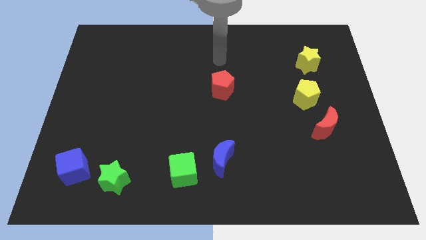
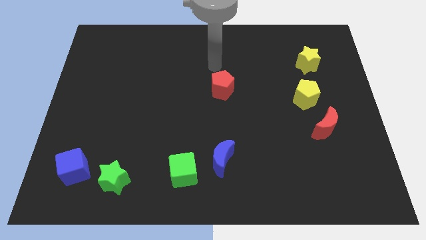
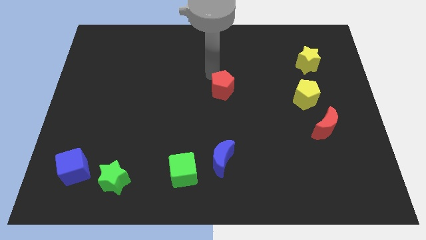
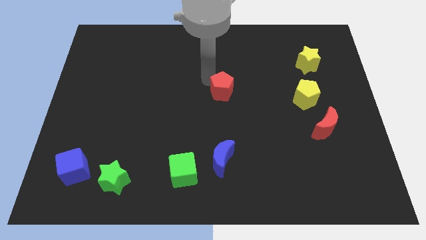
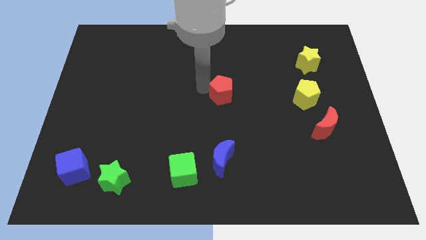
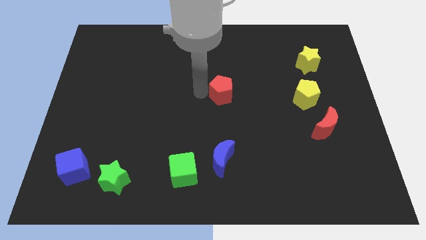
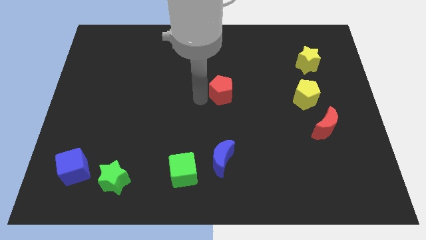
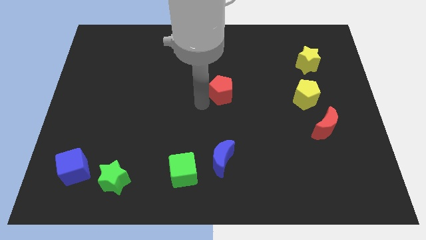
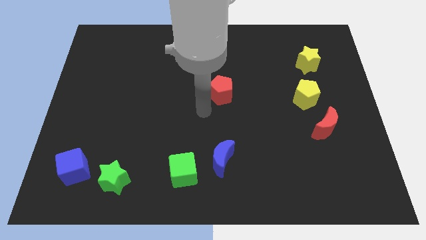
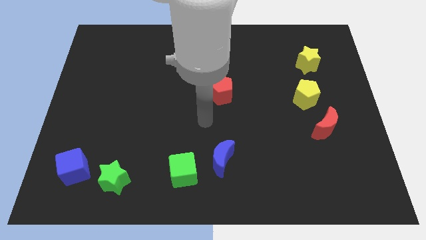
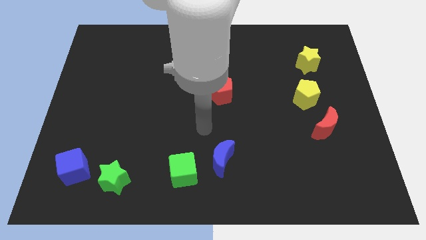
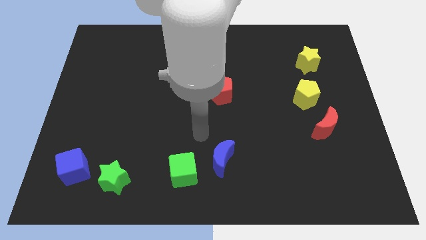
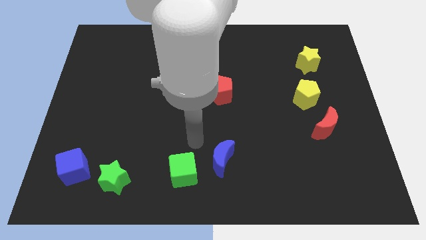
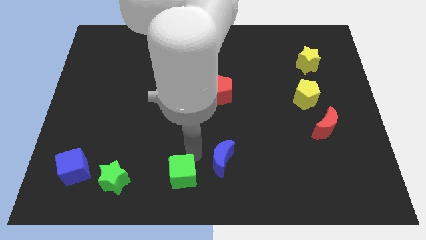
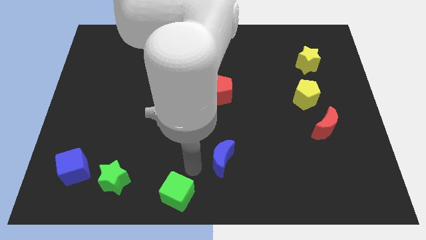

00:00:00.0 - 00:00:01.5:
separate the blue moon from the green cube

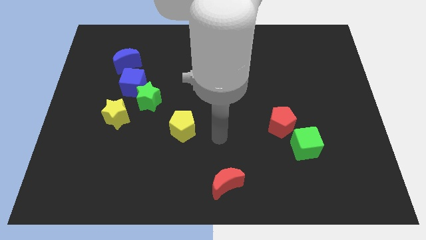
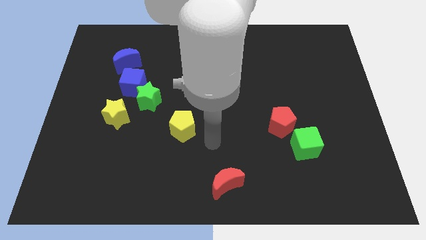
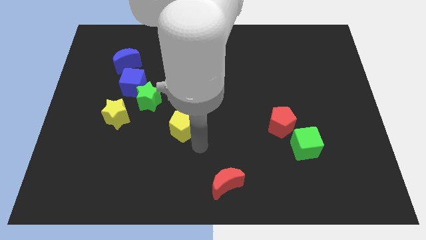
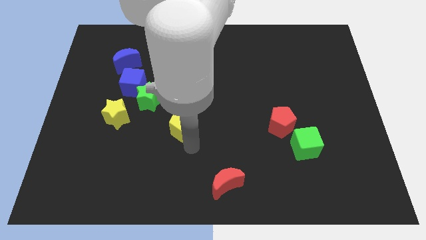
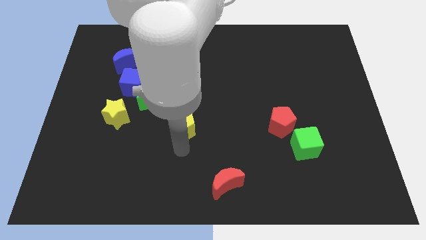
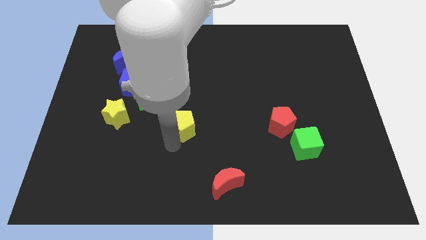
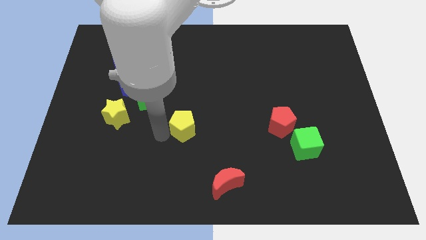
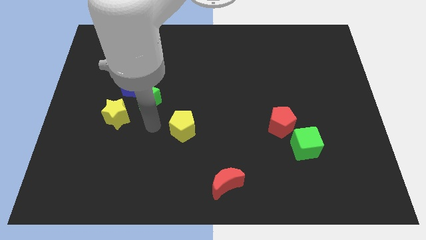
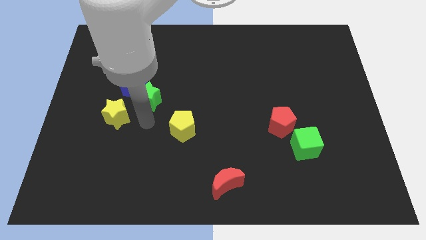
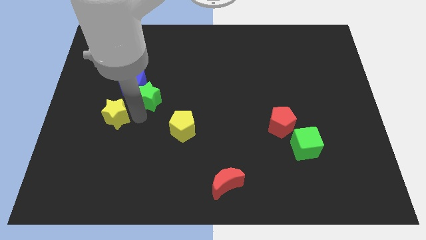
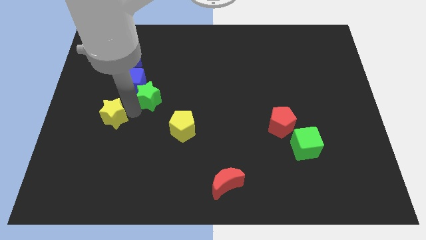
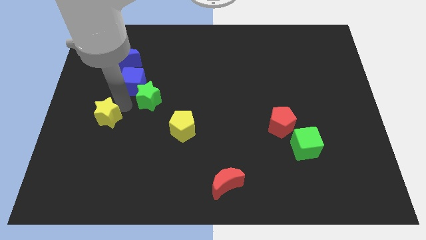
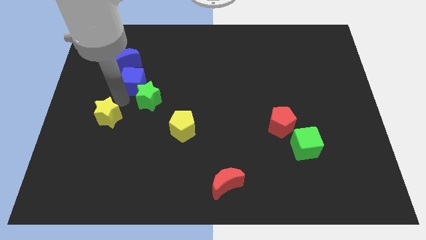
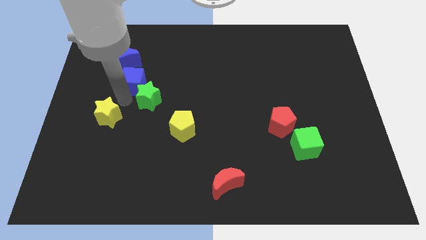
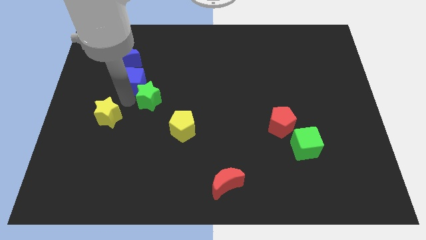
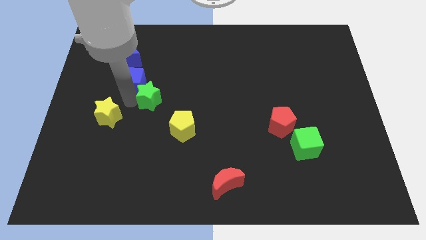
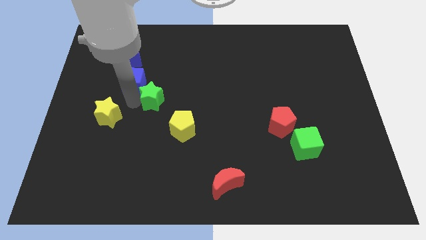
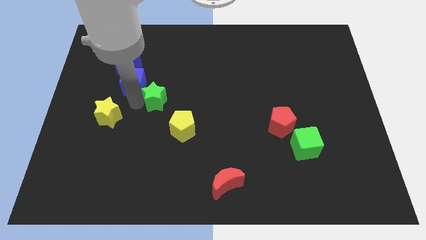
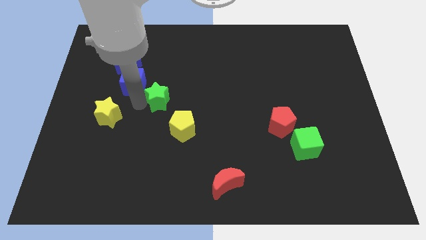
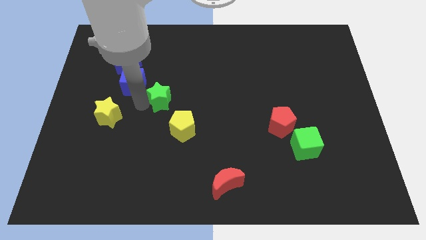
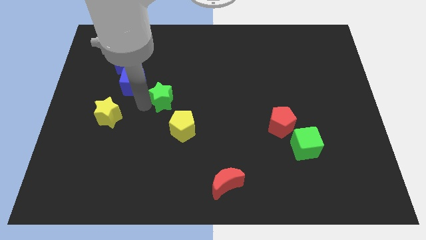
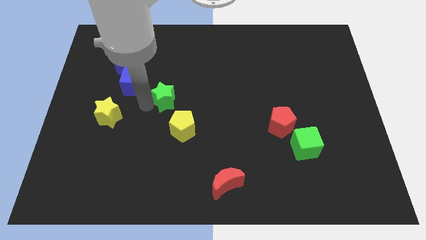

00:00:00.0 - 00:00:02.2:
move the green star away from the blue cube and yellow star

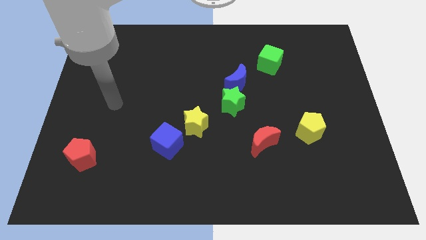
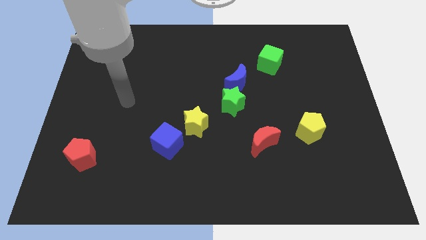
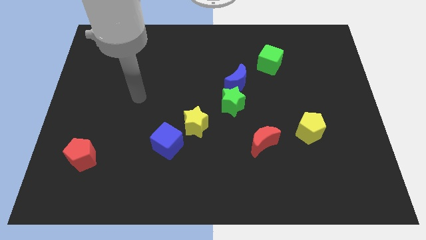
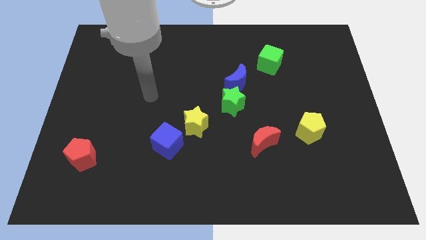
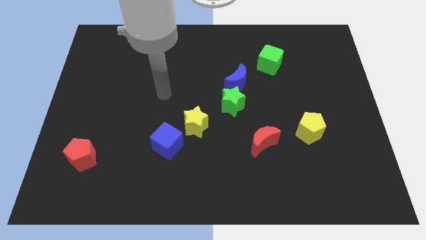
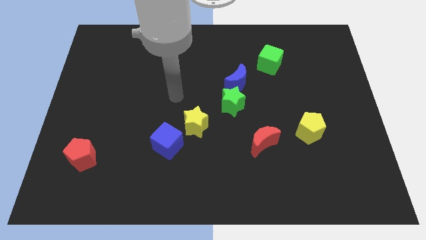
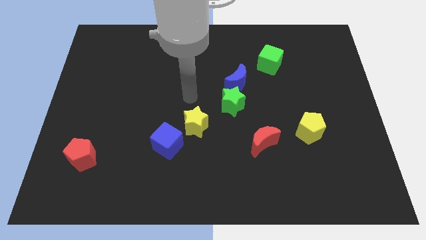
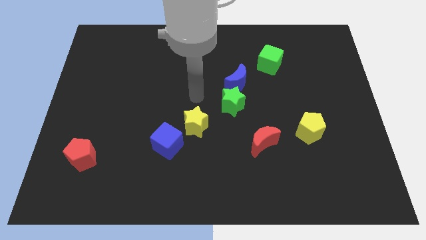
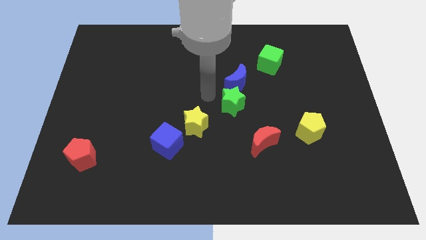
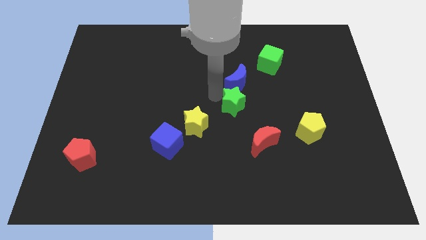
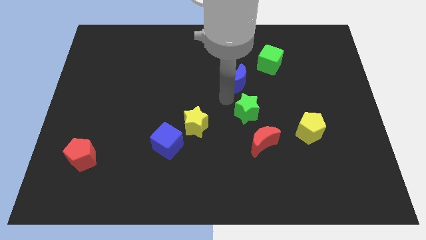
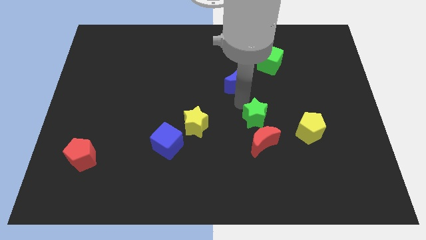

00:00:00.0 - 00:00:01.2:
separate the blue moon from the green star

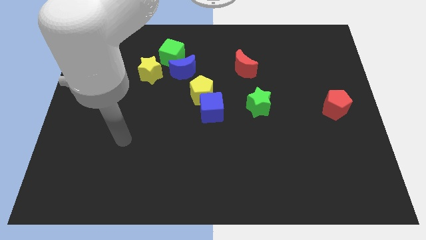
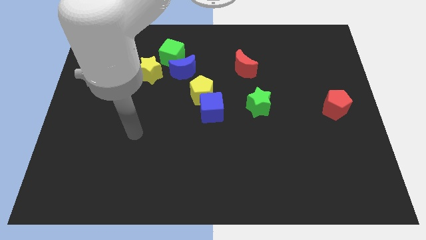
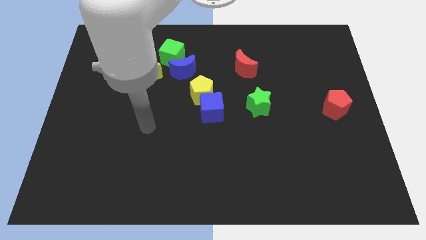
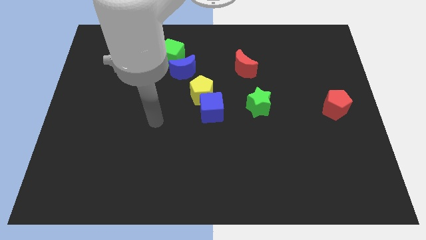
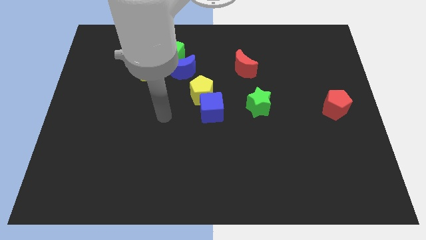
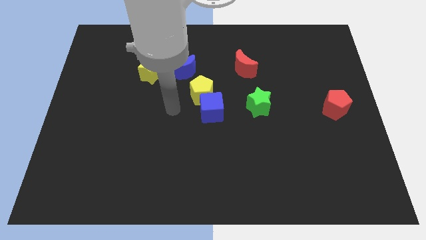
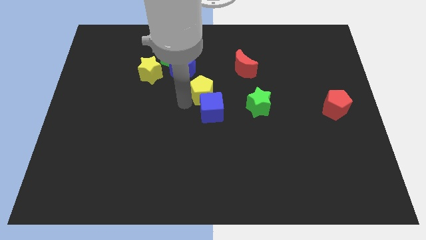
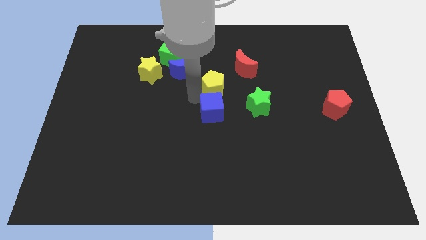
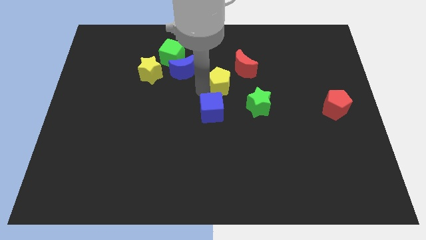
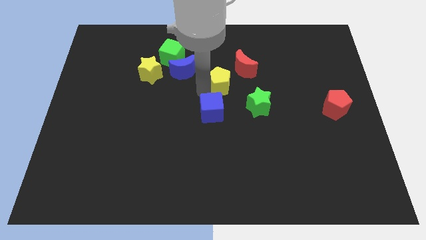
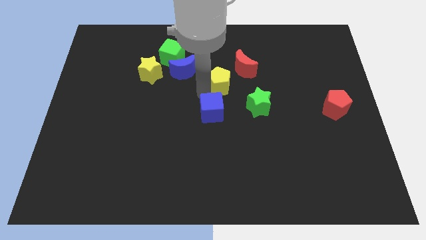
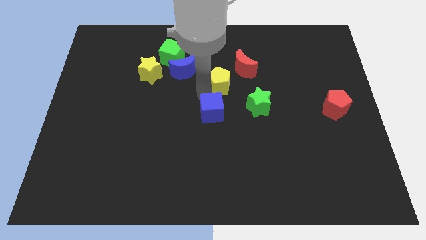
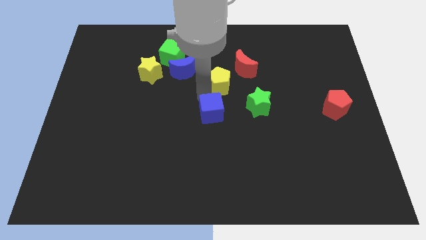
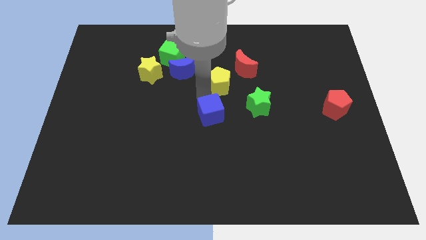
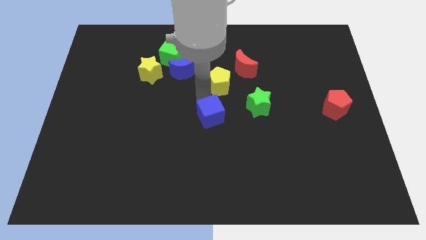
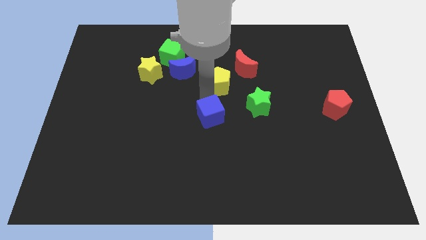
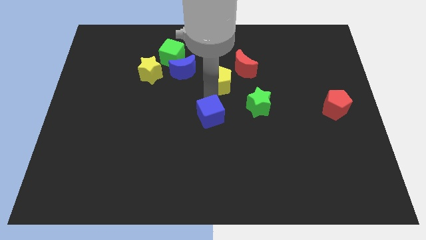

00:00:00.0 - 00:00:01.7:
move the blue cube away from the yellow pentagon

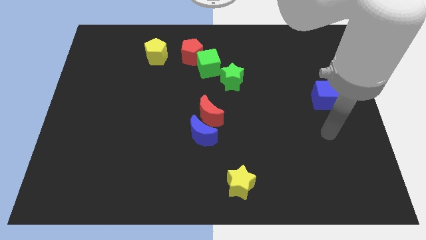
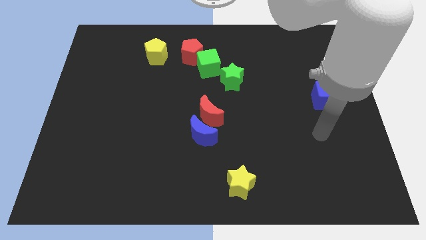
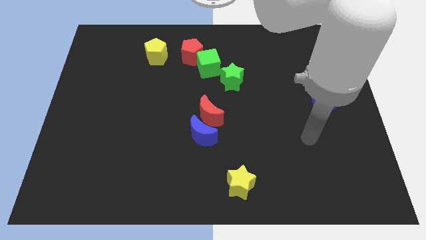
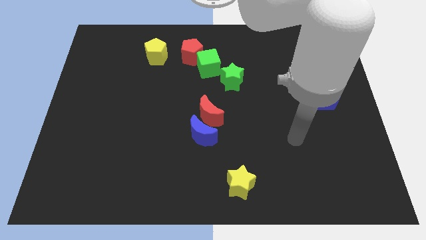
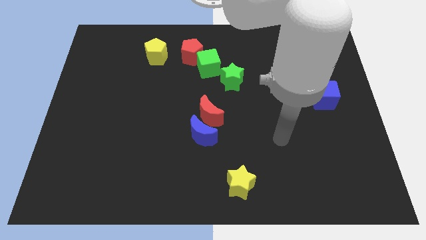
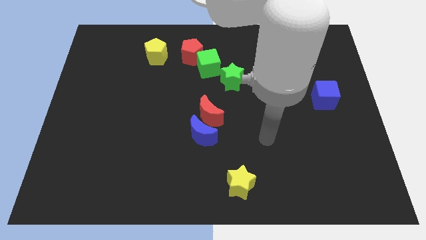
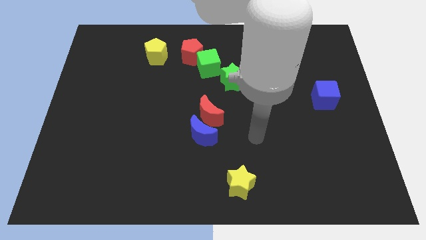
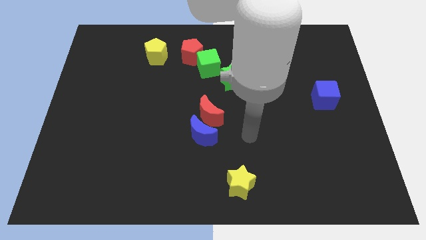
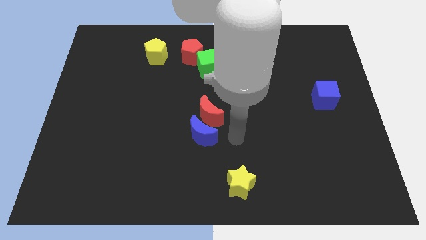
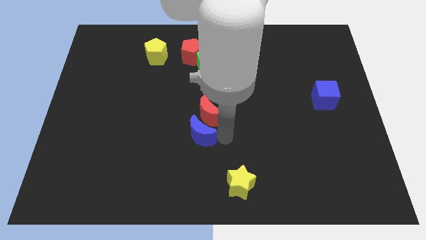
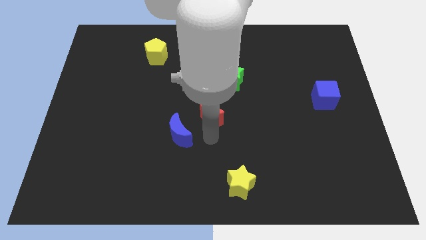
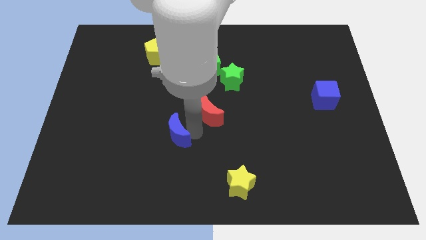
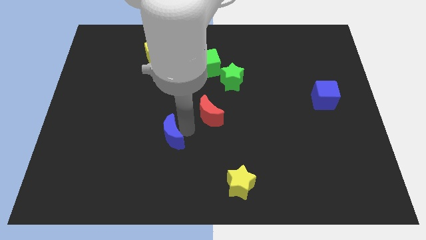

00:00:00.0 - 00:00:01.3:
move the red moon away from the blue moon

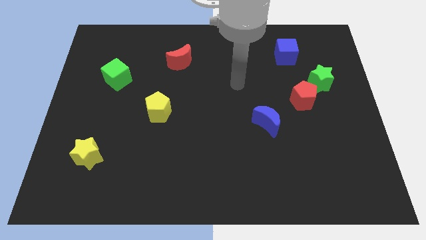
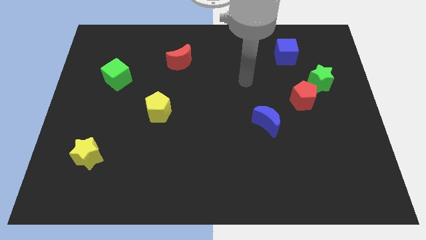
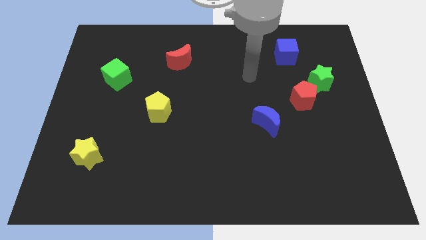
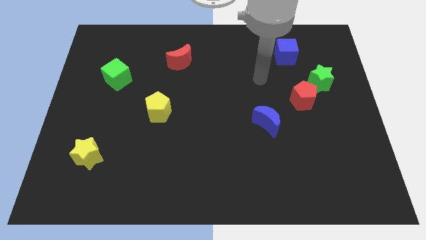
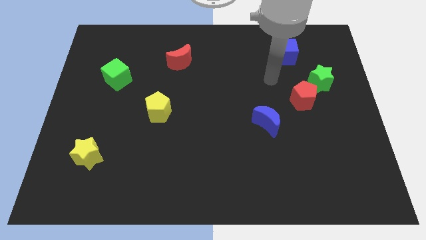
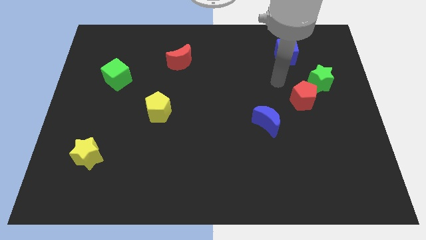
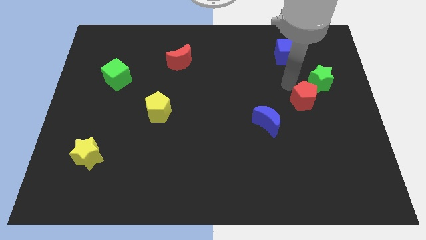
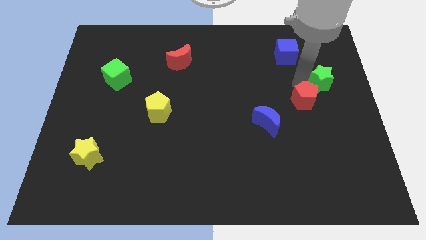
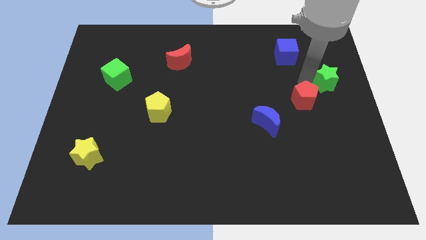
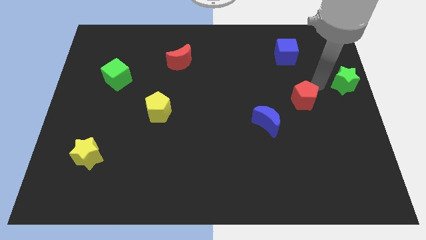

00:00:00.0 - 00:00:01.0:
separate the red pentagon from the green star

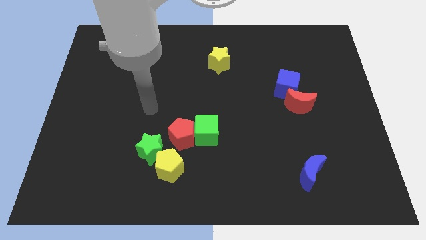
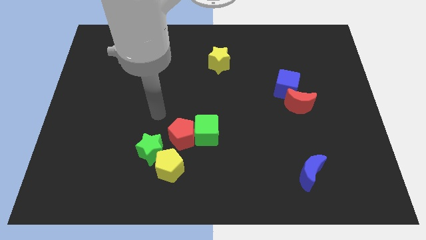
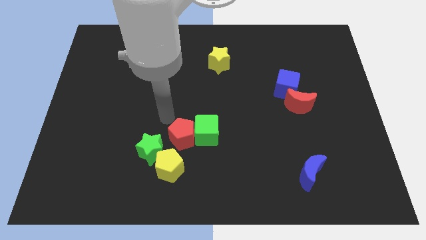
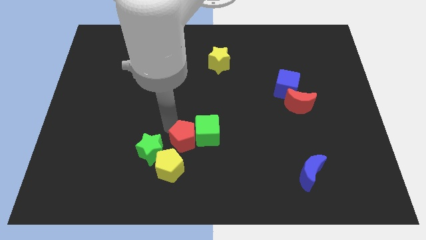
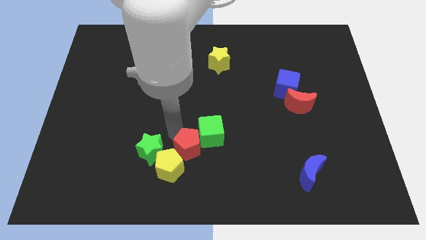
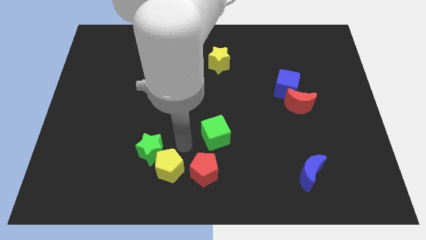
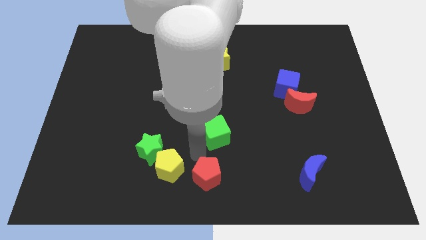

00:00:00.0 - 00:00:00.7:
move the green cube away from the red pentagon
